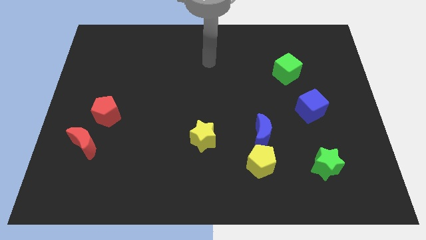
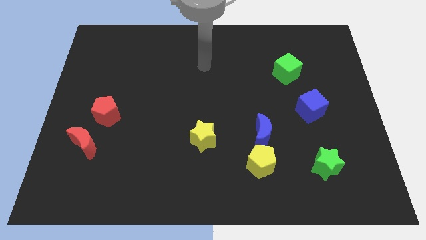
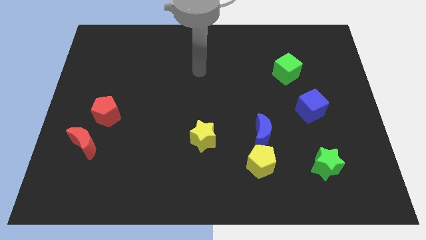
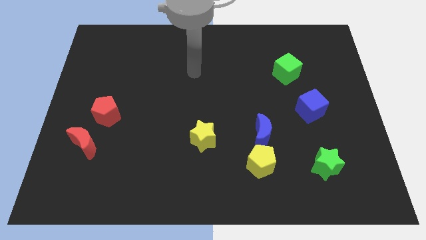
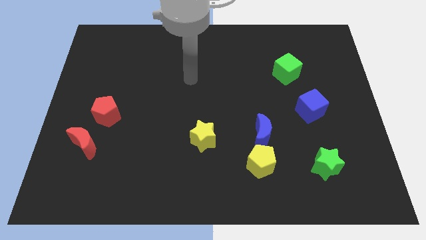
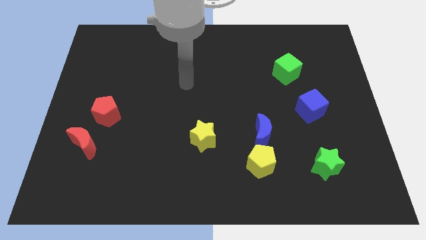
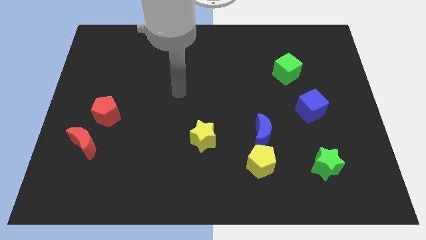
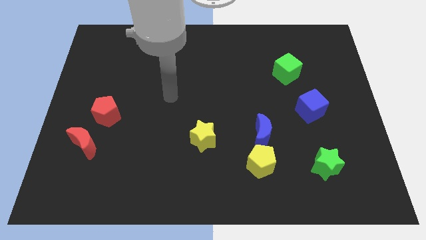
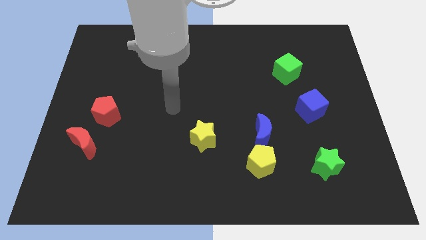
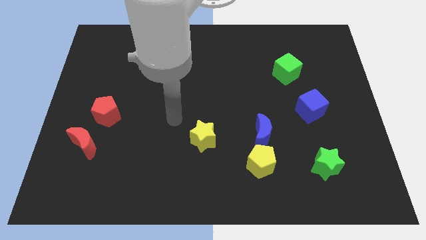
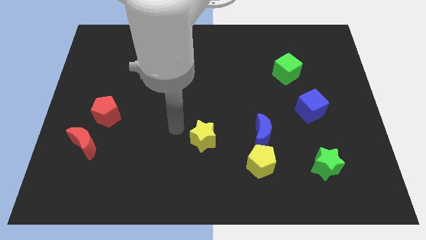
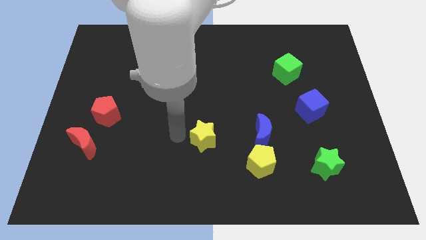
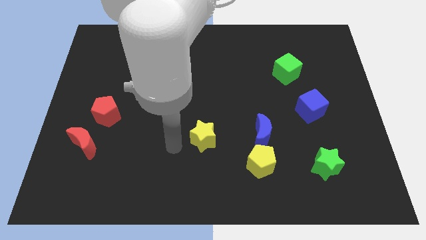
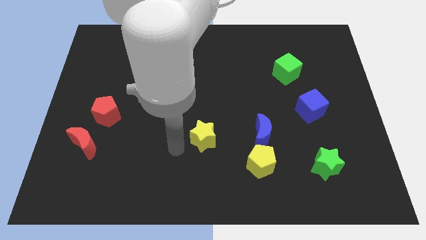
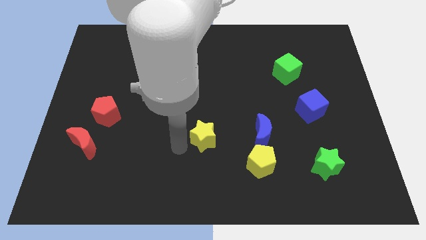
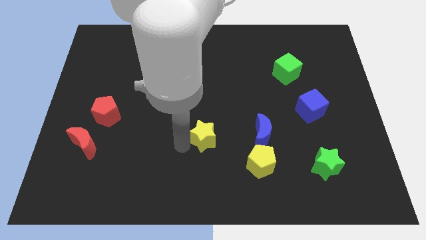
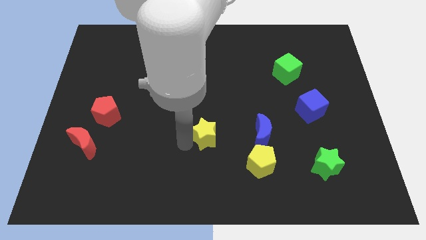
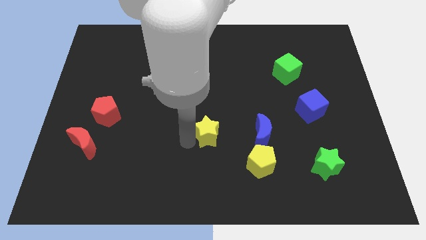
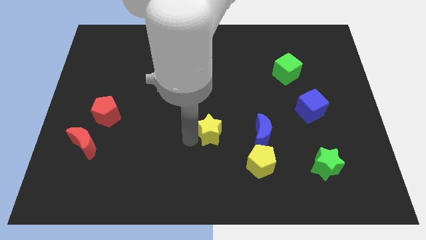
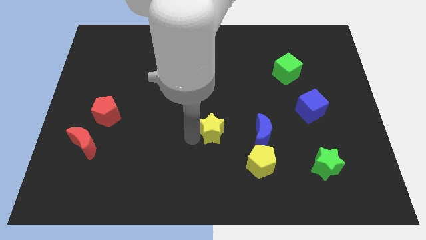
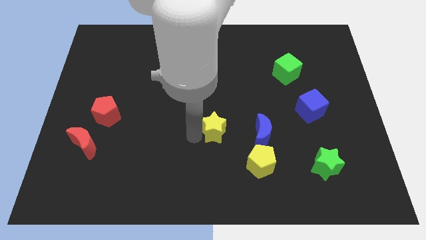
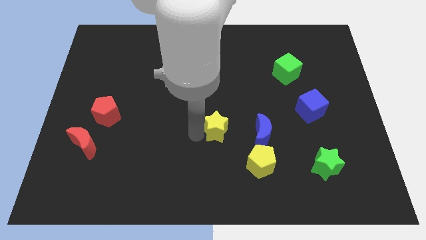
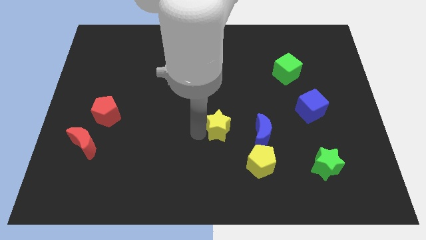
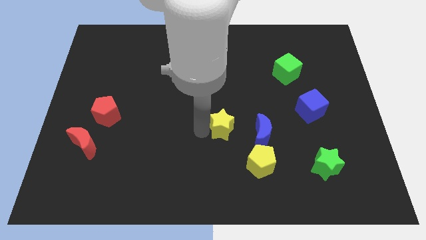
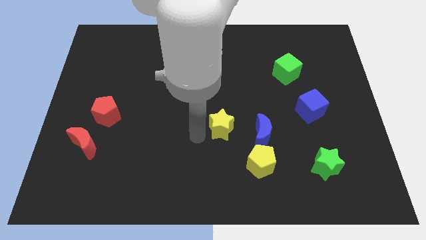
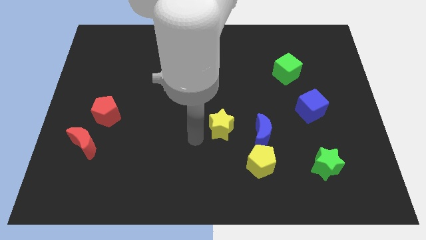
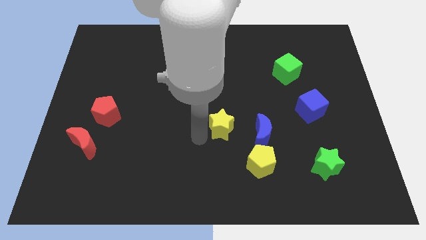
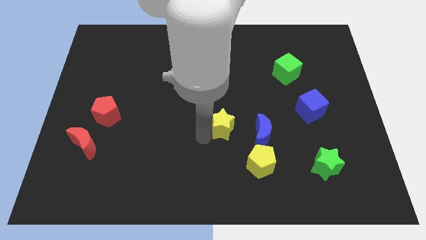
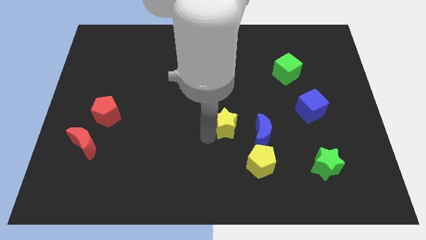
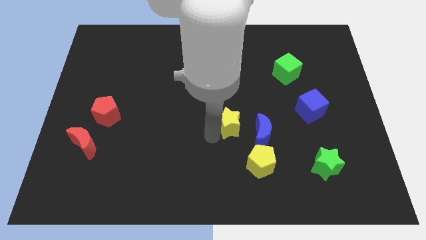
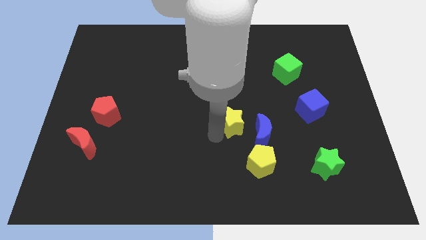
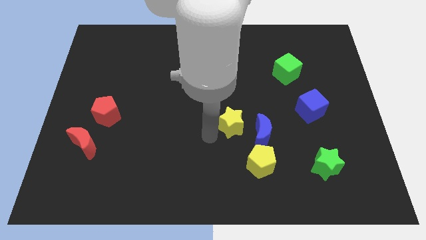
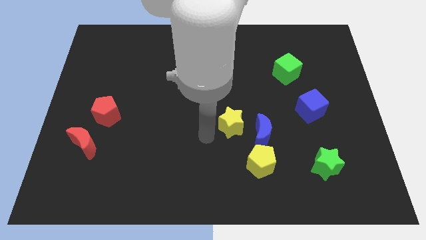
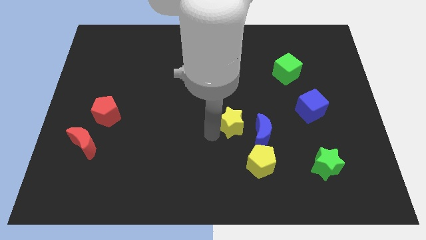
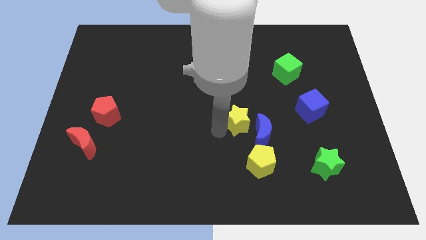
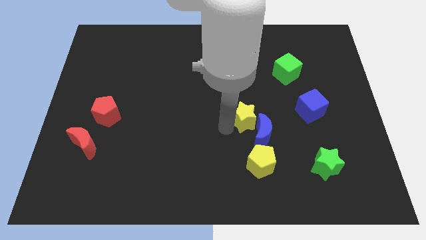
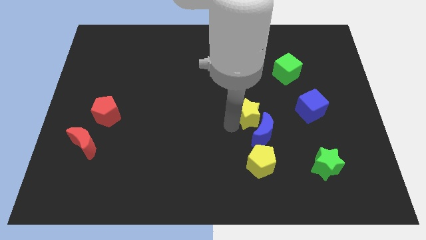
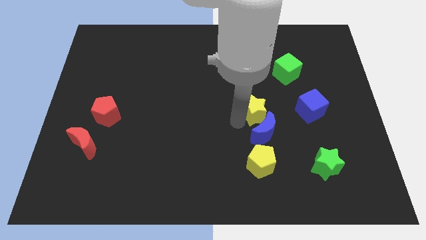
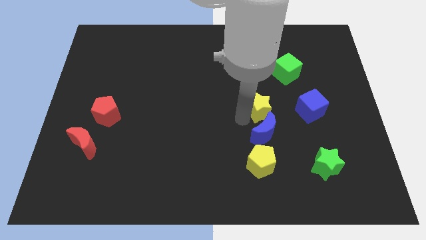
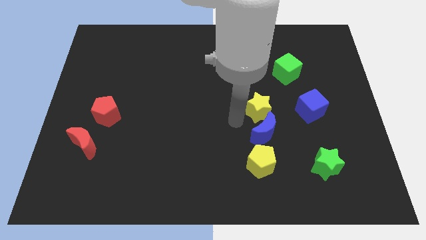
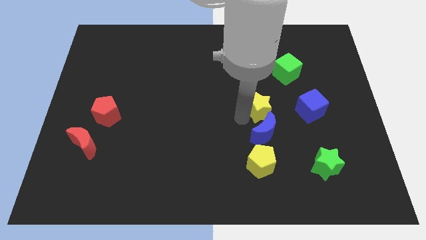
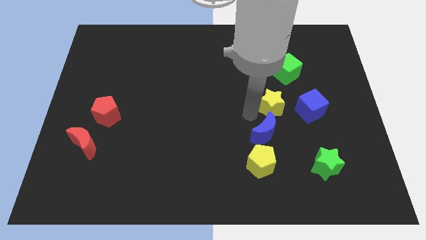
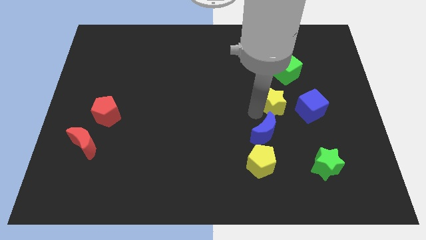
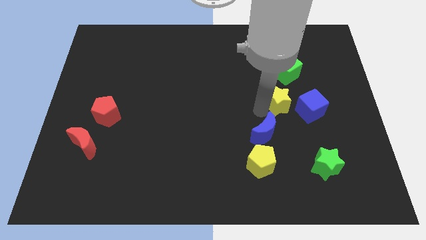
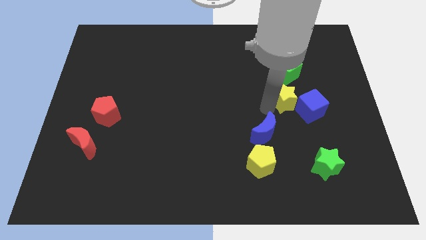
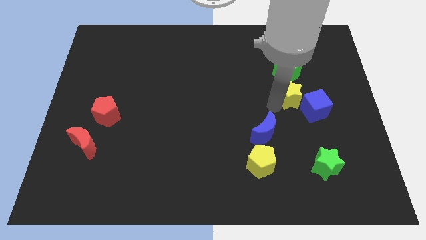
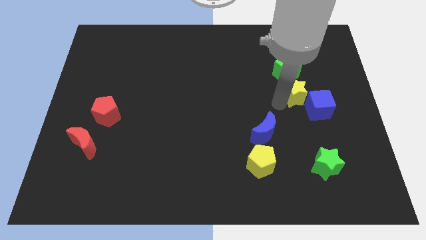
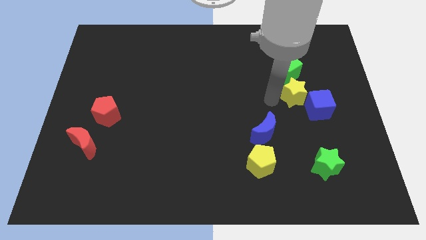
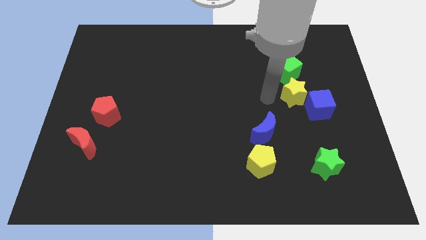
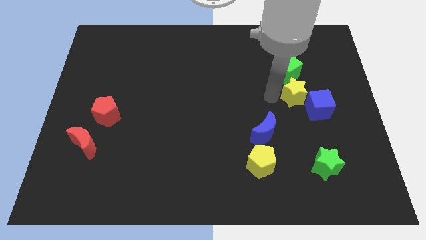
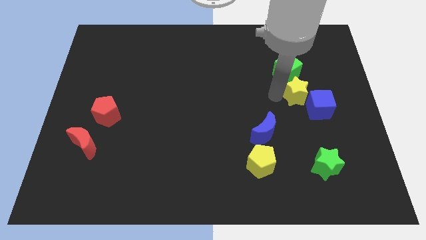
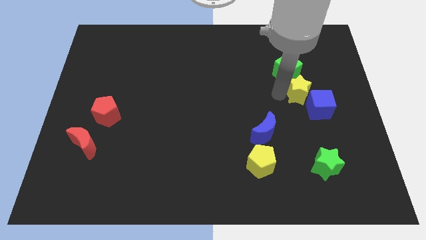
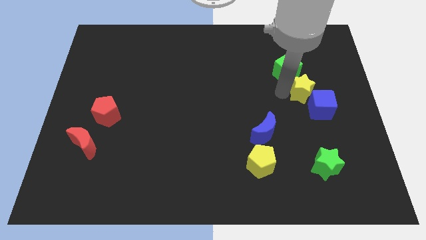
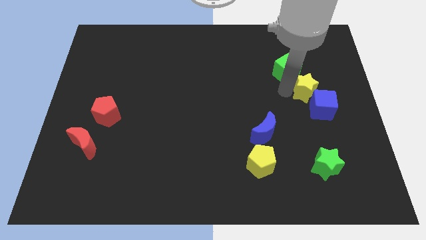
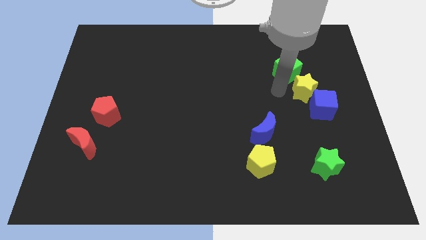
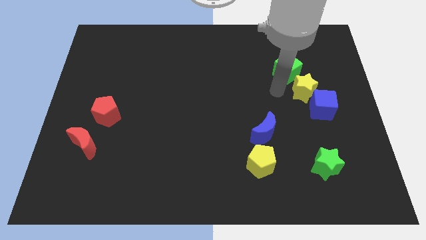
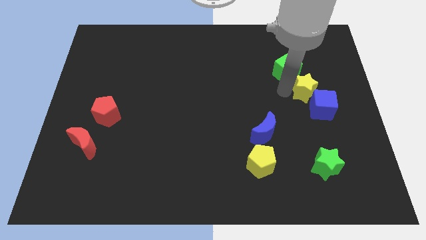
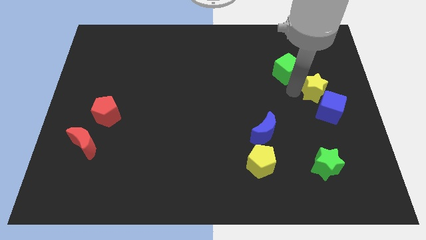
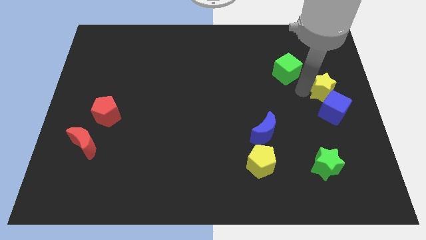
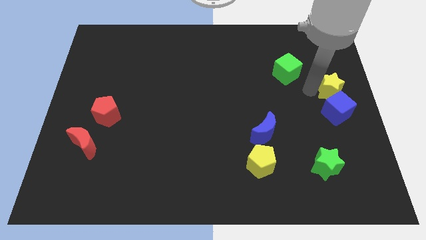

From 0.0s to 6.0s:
move the yellow star diagonally up and to the right of the blue cube

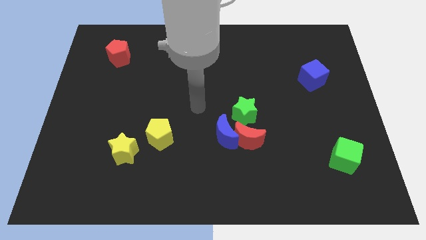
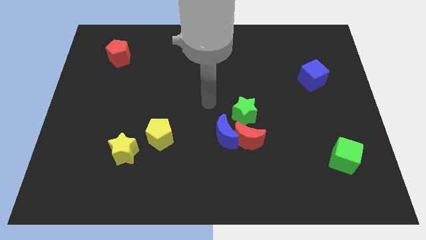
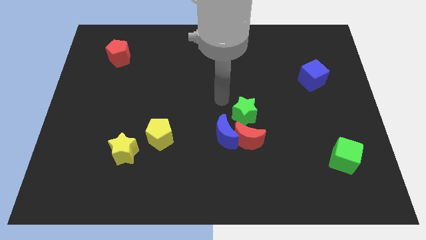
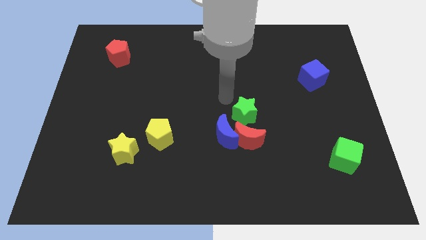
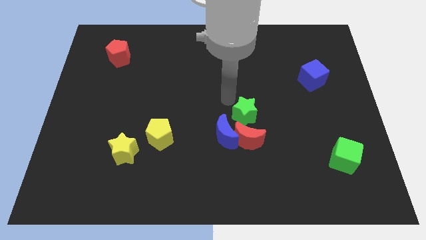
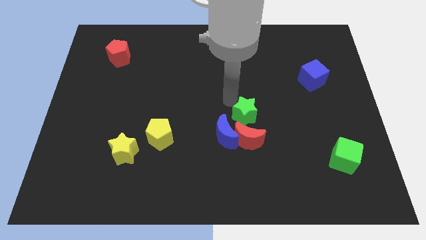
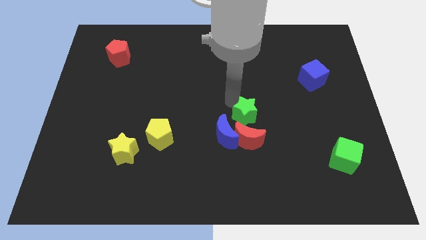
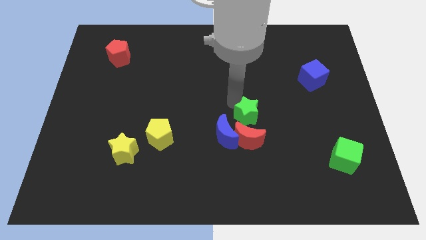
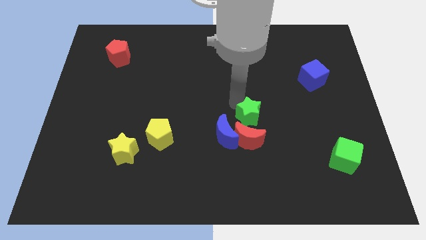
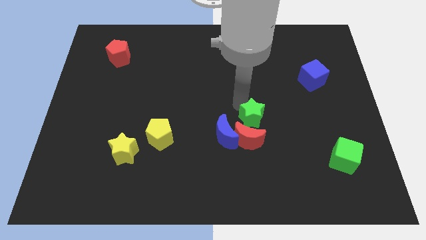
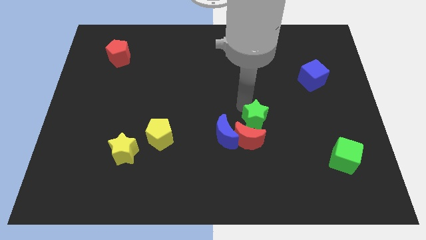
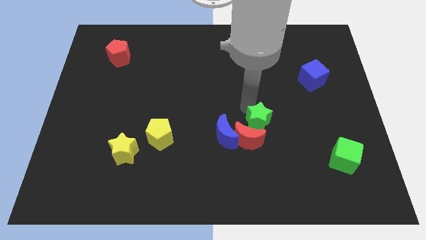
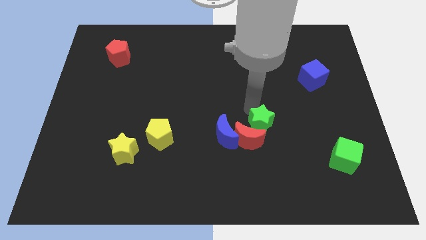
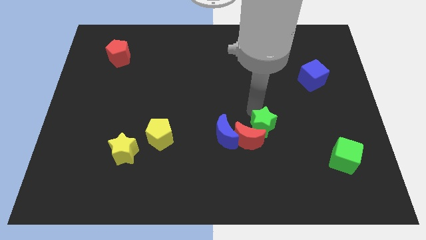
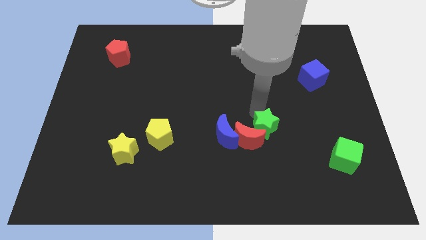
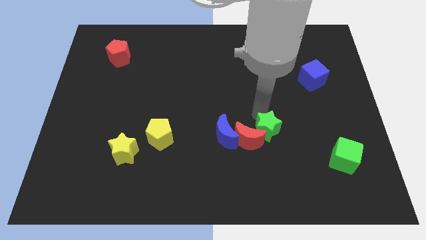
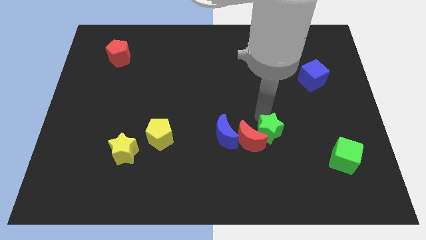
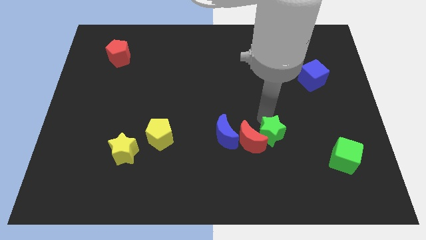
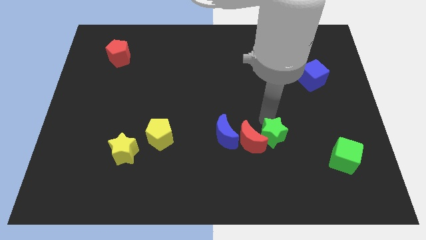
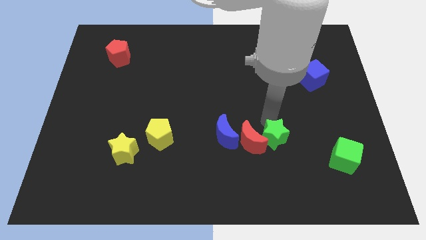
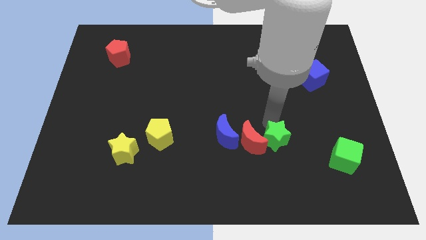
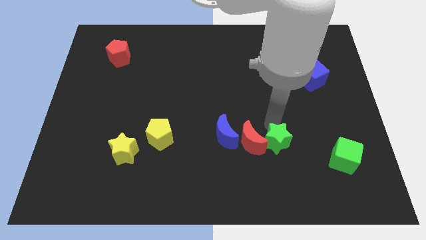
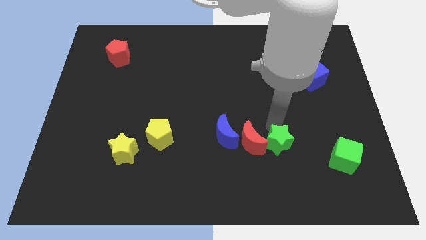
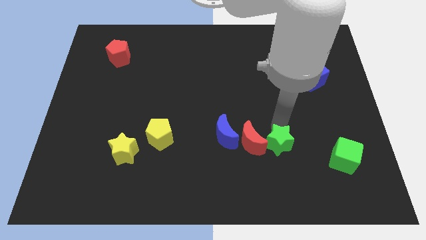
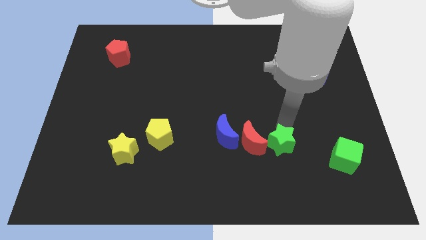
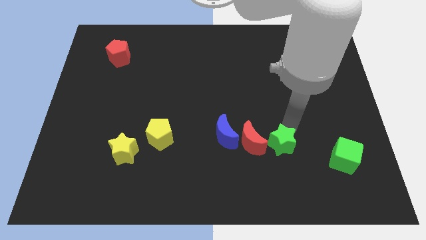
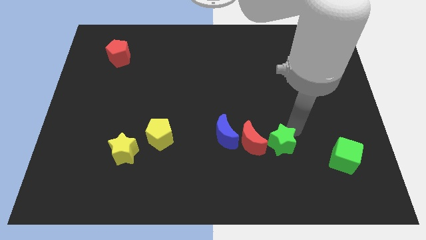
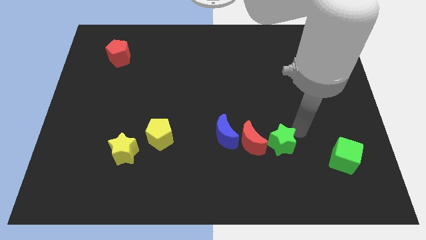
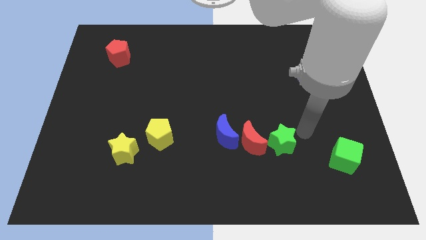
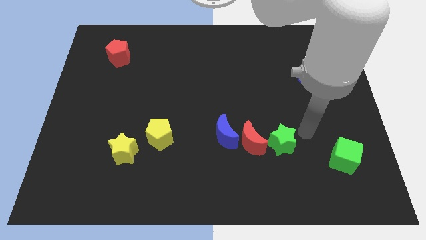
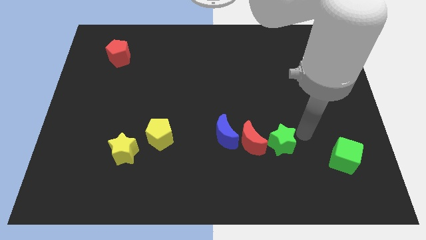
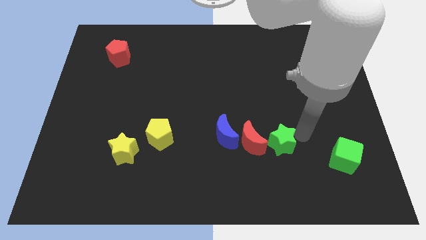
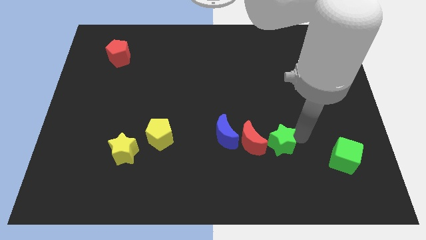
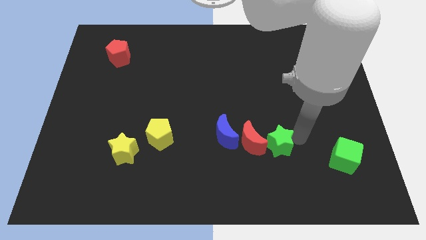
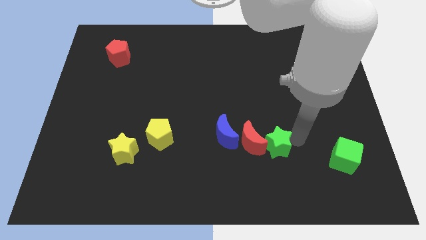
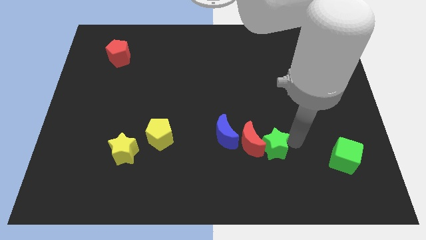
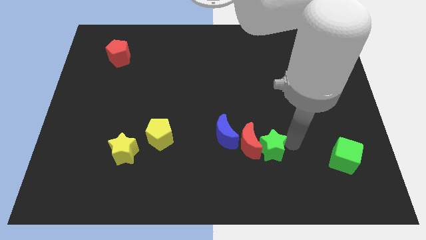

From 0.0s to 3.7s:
move the green star diagonally down and to the right of the blue moon
